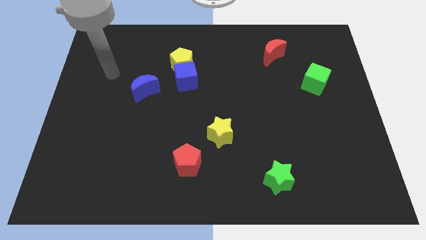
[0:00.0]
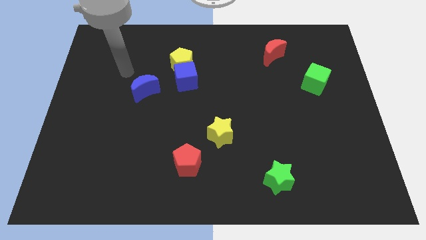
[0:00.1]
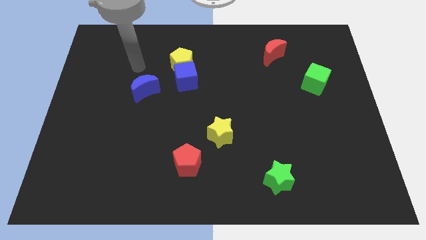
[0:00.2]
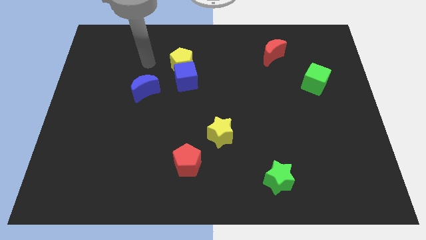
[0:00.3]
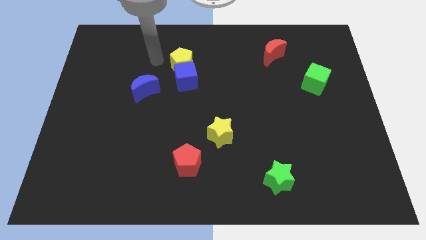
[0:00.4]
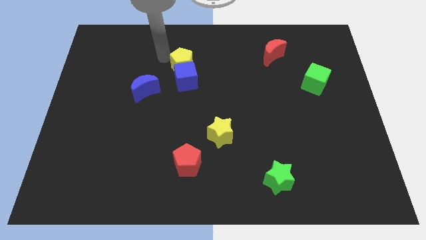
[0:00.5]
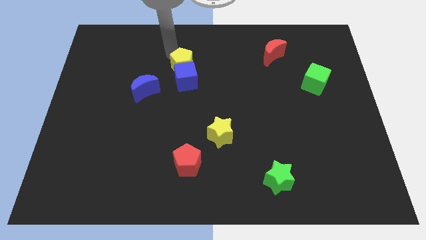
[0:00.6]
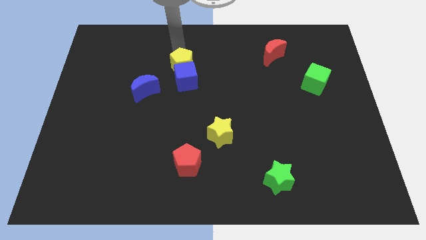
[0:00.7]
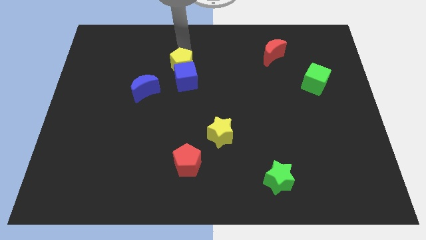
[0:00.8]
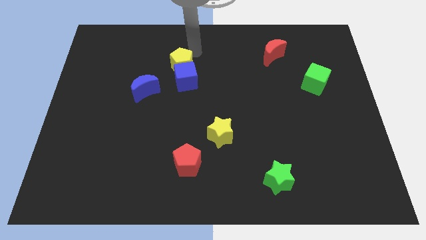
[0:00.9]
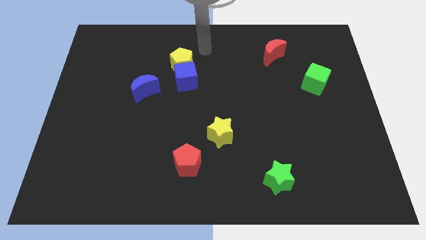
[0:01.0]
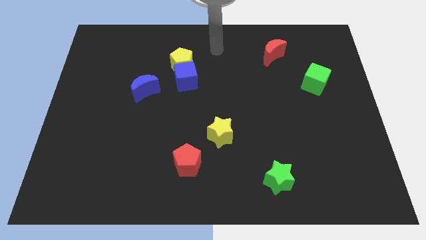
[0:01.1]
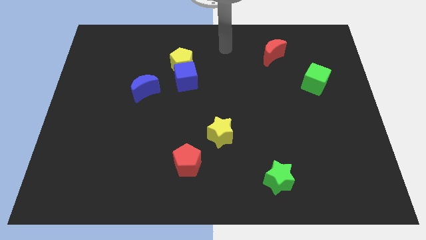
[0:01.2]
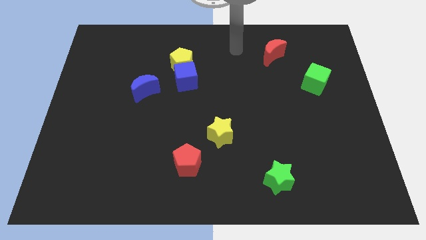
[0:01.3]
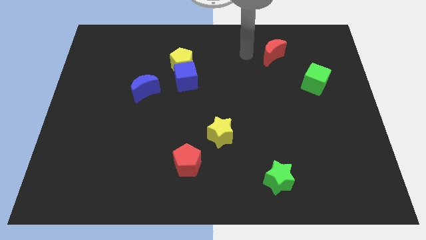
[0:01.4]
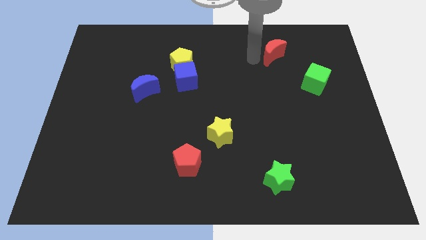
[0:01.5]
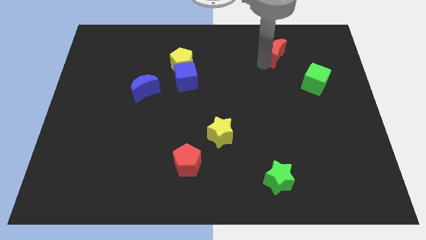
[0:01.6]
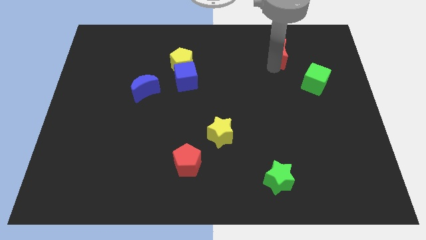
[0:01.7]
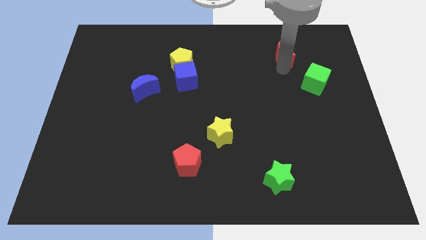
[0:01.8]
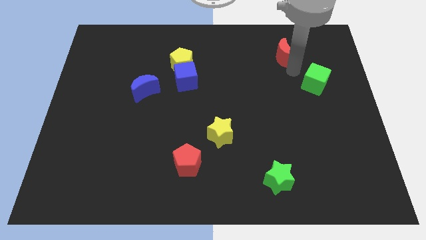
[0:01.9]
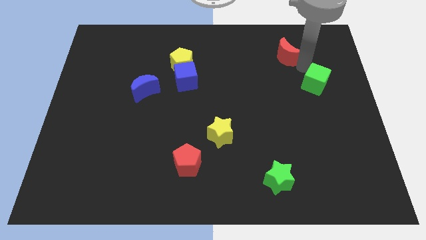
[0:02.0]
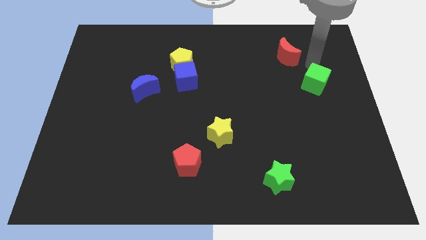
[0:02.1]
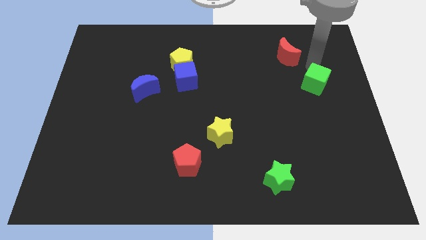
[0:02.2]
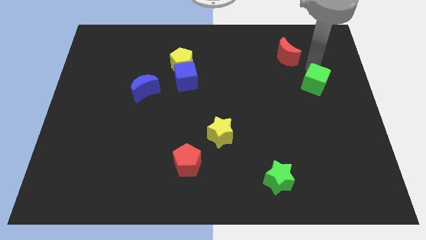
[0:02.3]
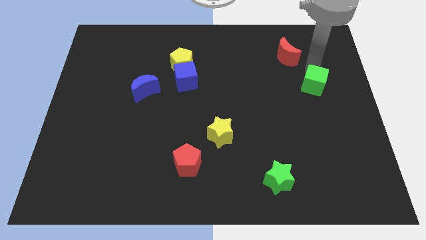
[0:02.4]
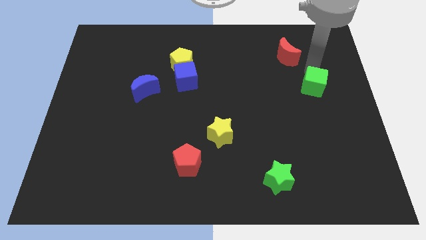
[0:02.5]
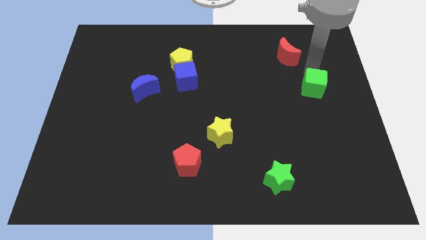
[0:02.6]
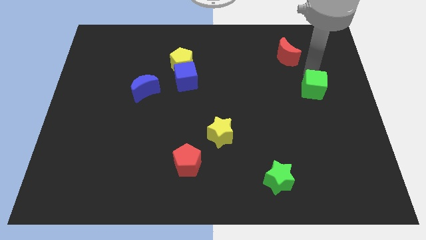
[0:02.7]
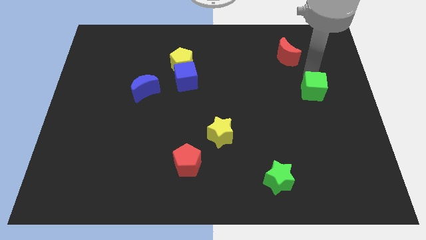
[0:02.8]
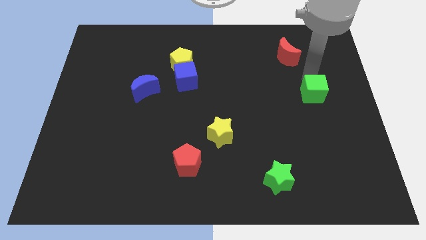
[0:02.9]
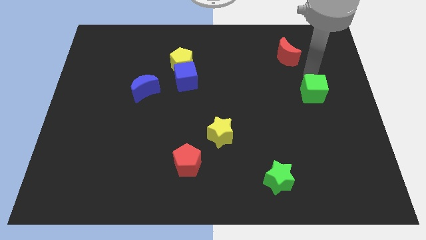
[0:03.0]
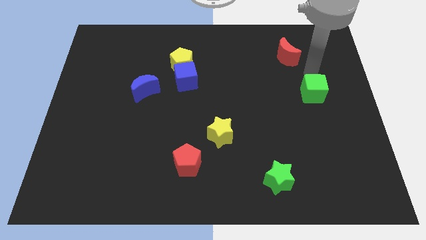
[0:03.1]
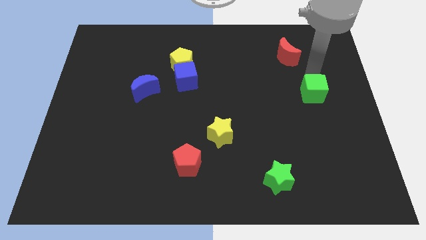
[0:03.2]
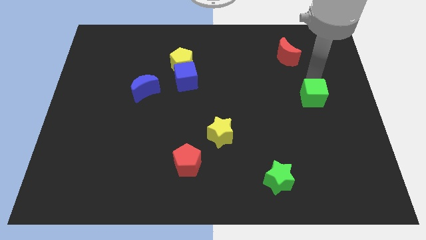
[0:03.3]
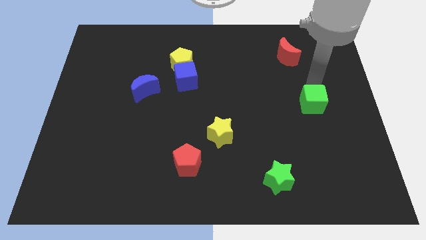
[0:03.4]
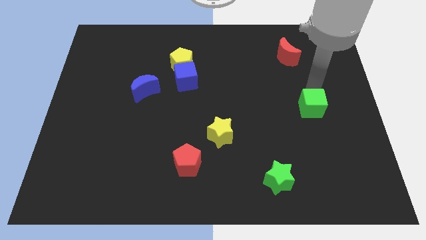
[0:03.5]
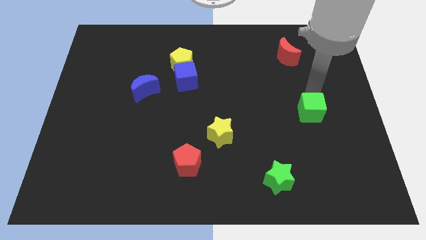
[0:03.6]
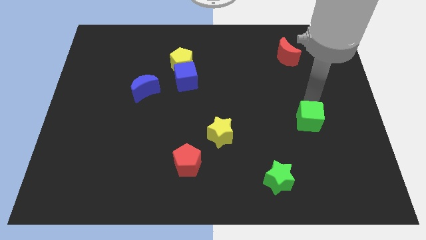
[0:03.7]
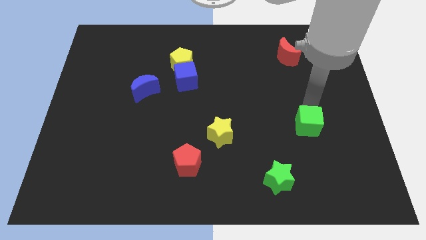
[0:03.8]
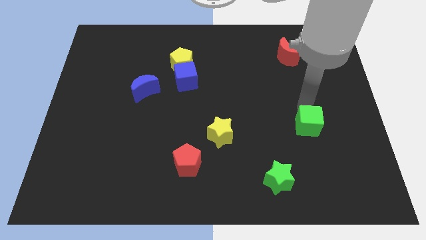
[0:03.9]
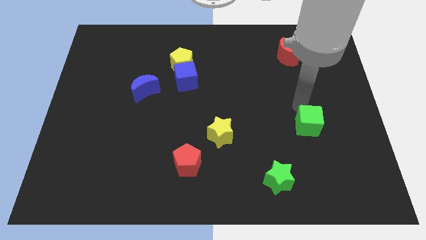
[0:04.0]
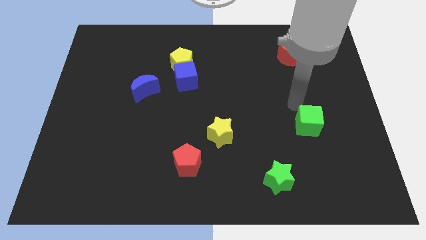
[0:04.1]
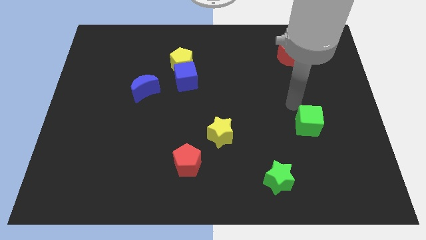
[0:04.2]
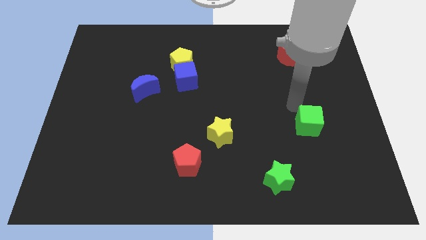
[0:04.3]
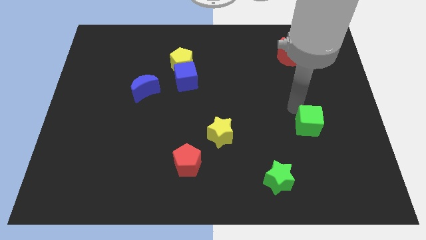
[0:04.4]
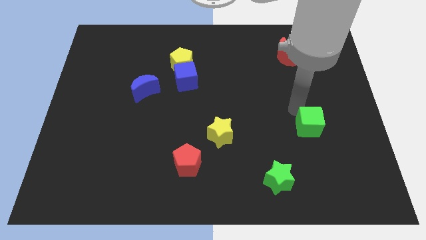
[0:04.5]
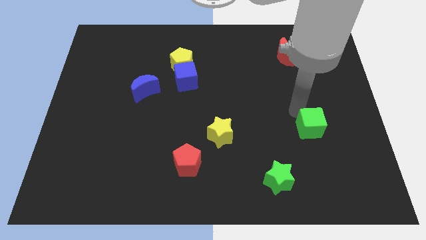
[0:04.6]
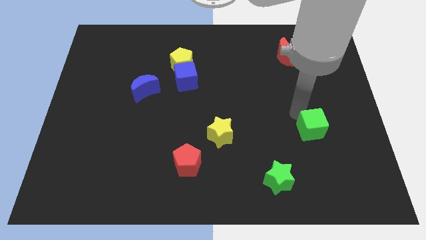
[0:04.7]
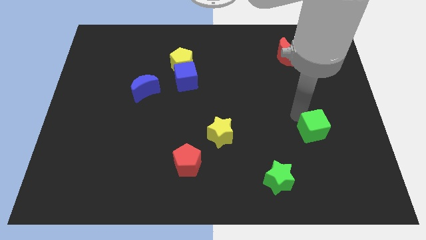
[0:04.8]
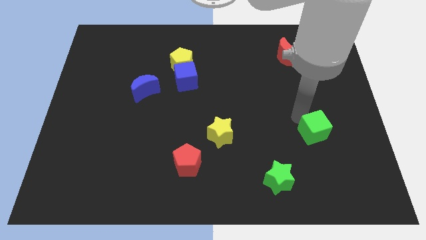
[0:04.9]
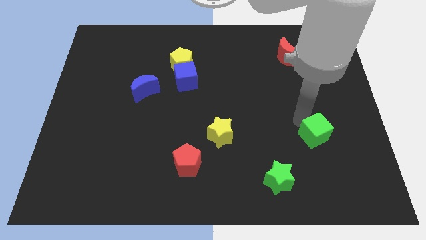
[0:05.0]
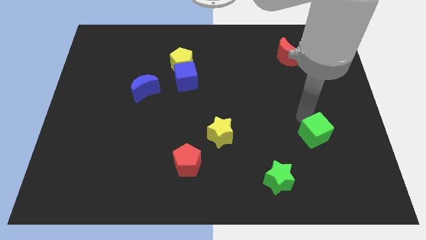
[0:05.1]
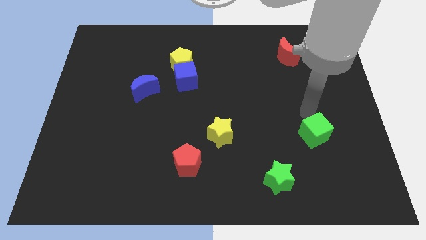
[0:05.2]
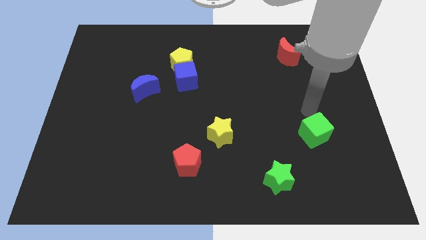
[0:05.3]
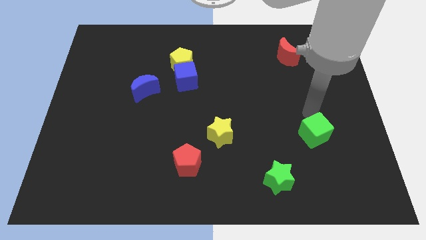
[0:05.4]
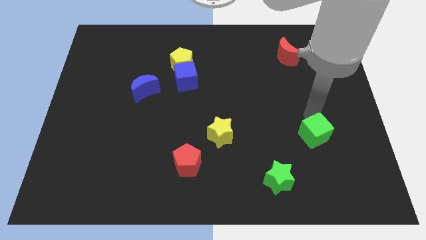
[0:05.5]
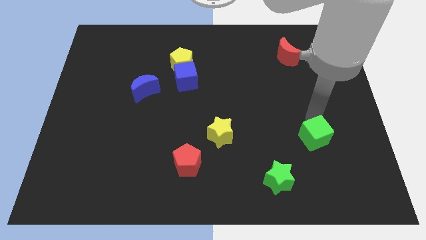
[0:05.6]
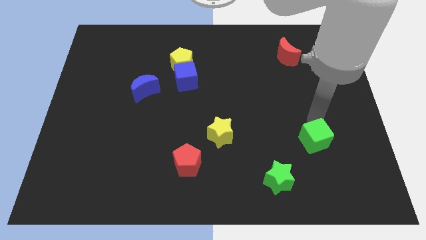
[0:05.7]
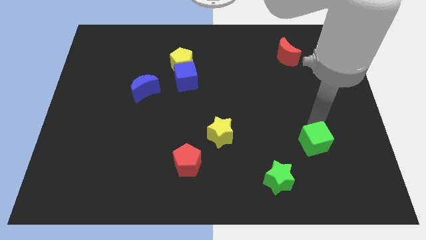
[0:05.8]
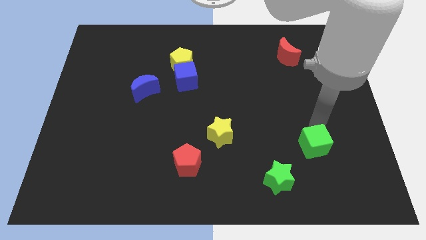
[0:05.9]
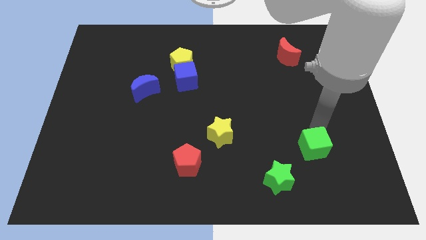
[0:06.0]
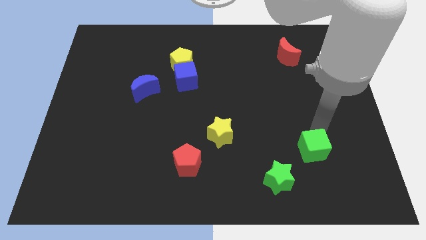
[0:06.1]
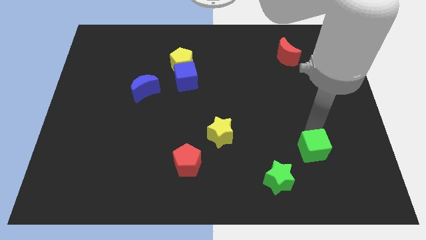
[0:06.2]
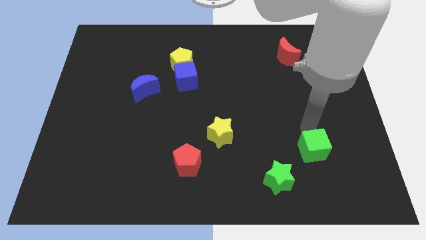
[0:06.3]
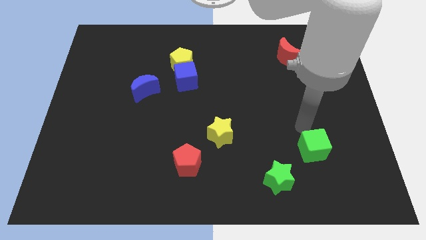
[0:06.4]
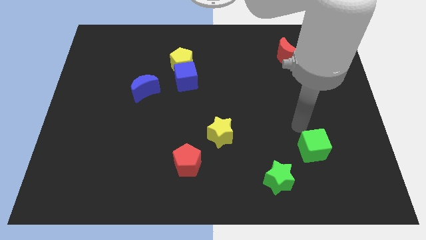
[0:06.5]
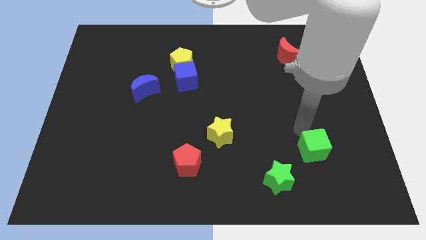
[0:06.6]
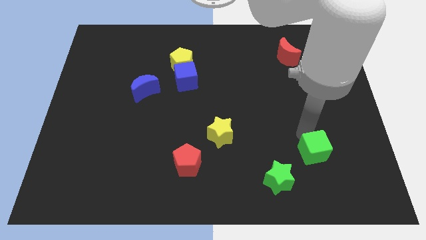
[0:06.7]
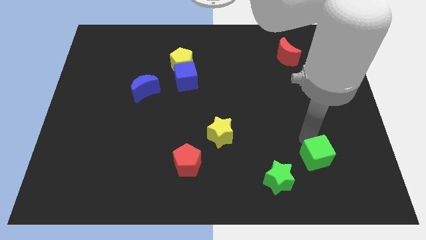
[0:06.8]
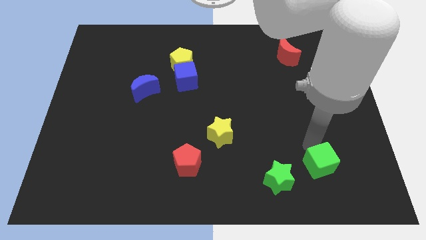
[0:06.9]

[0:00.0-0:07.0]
move the green cube to the right of the green star
